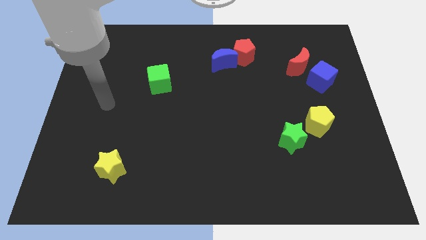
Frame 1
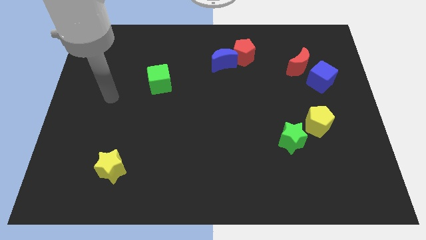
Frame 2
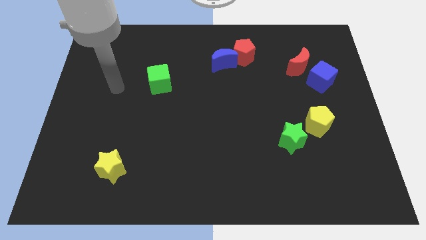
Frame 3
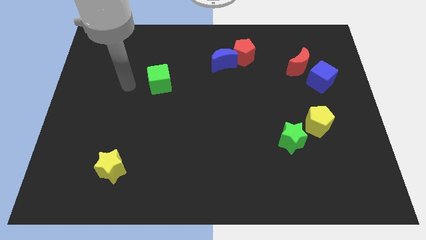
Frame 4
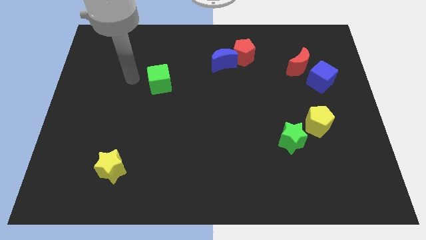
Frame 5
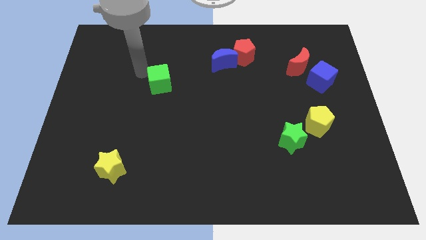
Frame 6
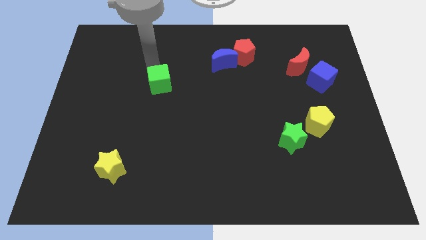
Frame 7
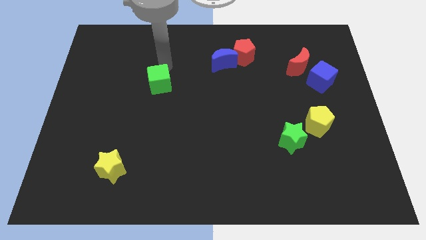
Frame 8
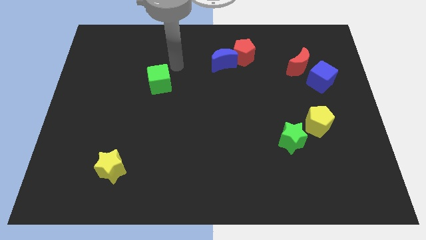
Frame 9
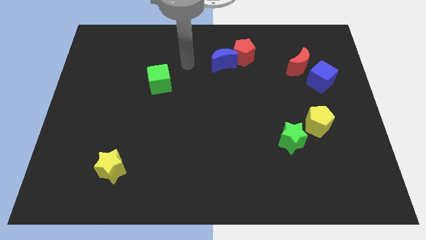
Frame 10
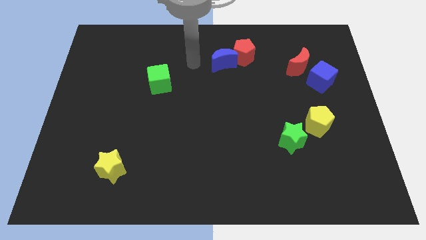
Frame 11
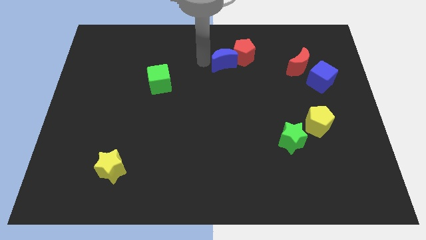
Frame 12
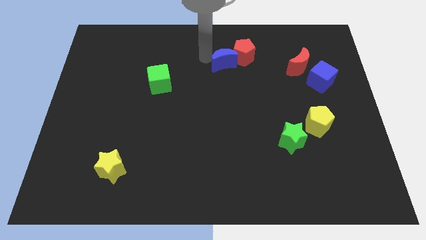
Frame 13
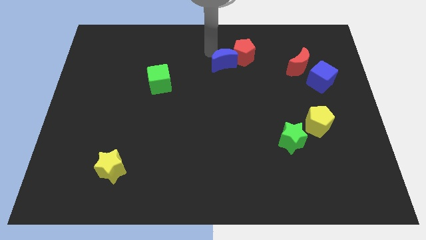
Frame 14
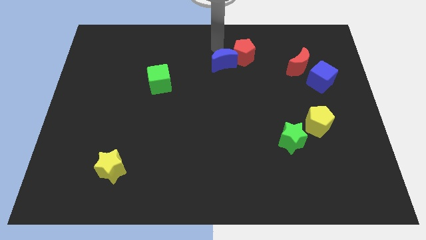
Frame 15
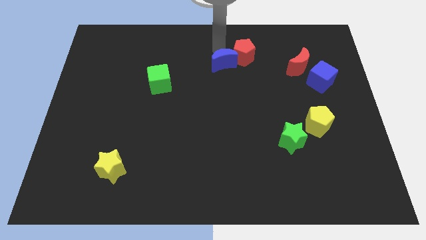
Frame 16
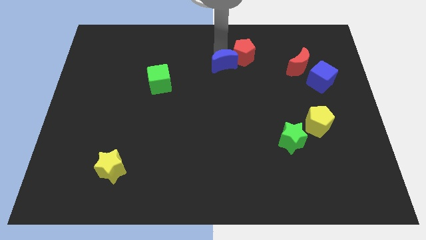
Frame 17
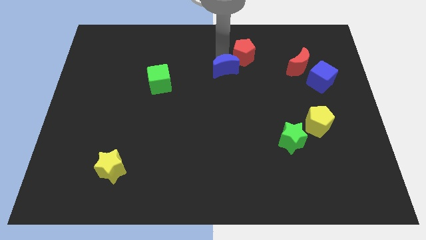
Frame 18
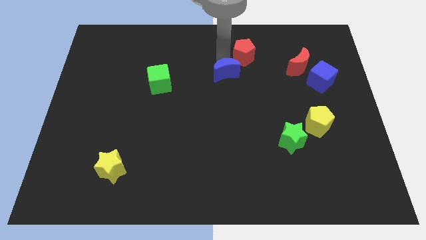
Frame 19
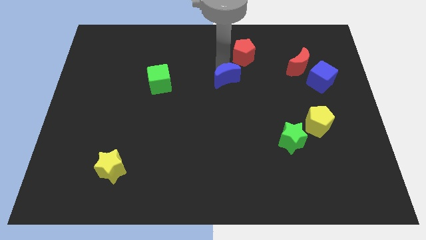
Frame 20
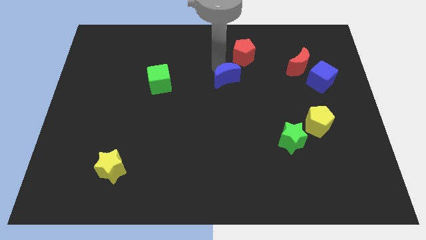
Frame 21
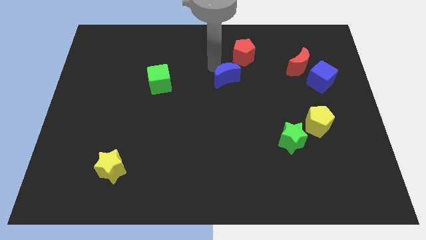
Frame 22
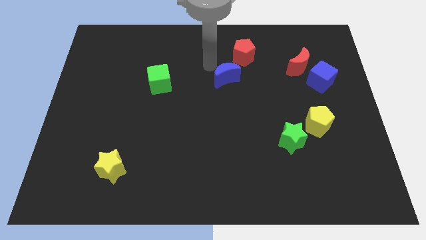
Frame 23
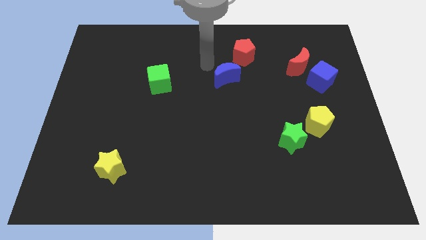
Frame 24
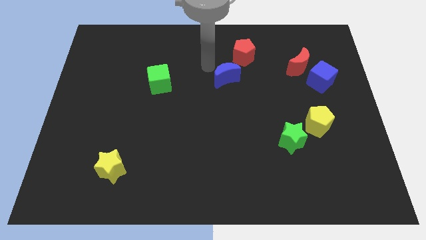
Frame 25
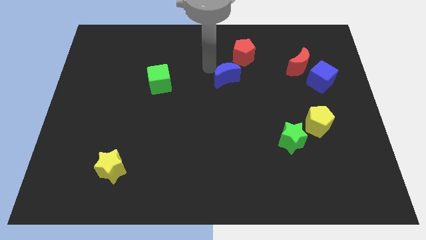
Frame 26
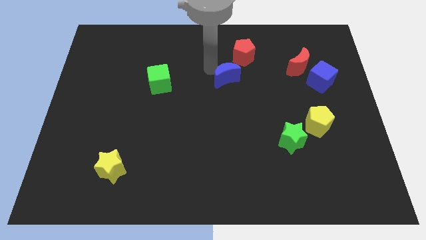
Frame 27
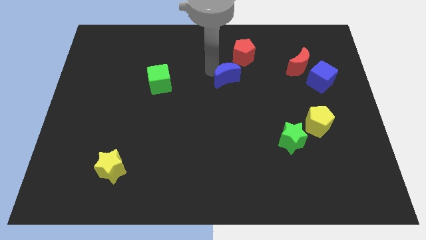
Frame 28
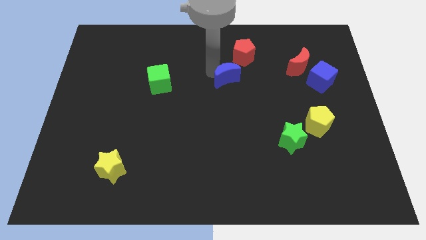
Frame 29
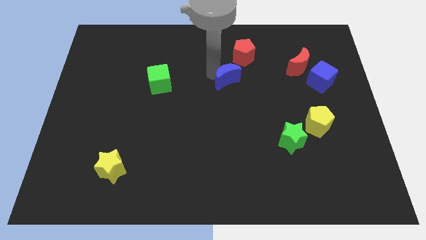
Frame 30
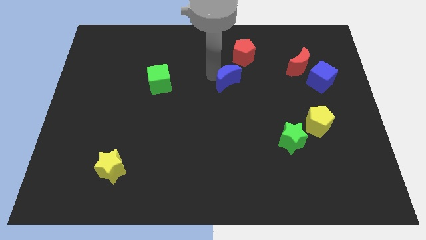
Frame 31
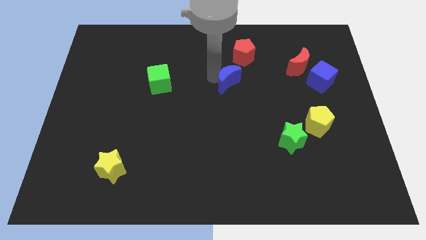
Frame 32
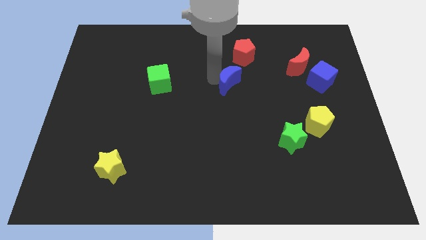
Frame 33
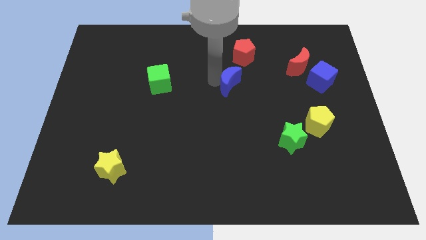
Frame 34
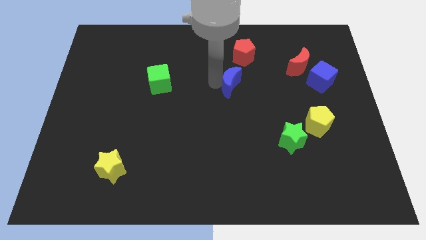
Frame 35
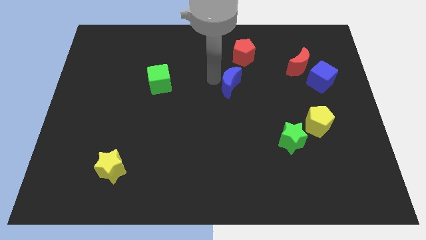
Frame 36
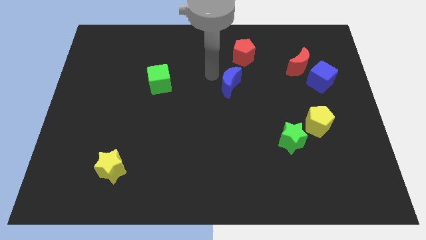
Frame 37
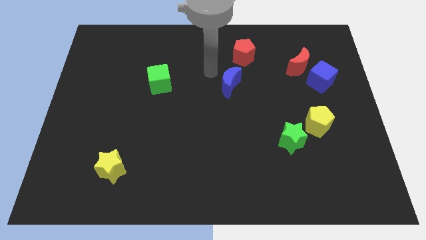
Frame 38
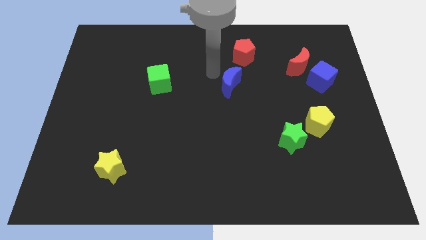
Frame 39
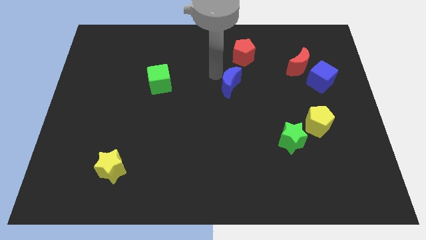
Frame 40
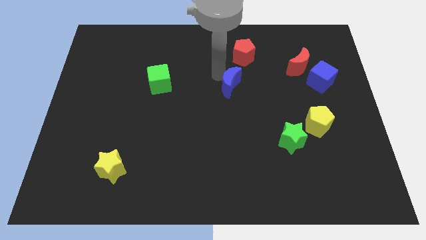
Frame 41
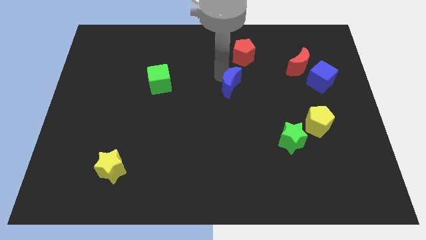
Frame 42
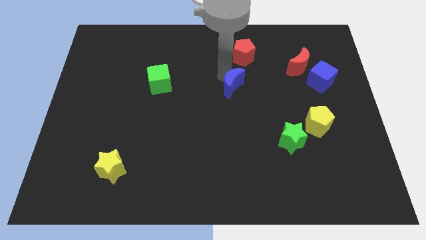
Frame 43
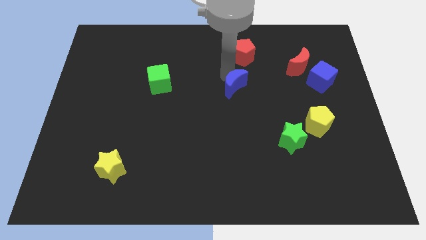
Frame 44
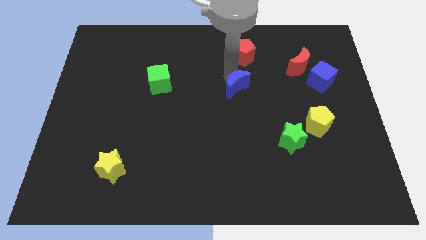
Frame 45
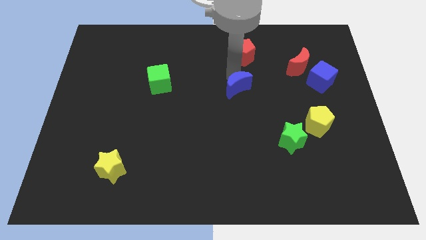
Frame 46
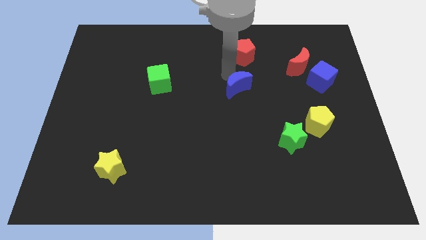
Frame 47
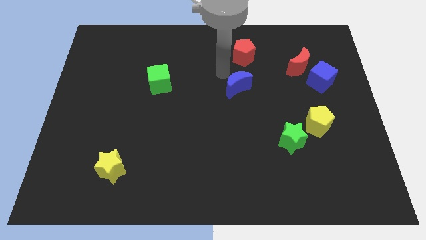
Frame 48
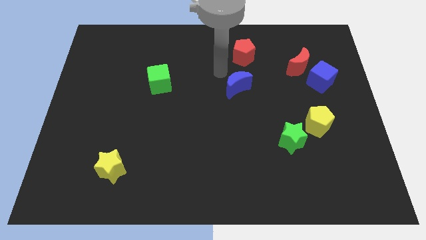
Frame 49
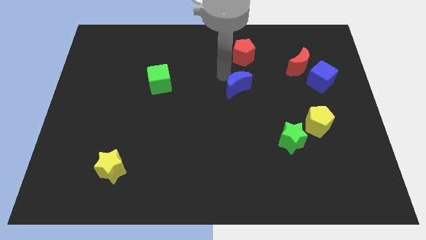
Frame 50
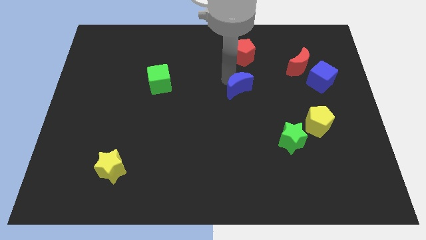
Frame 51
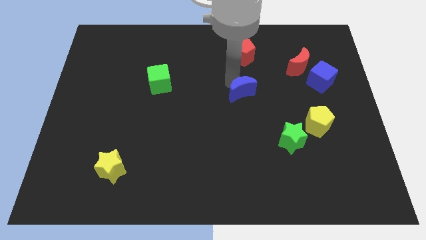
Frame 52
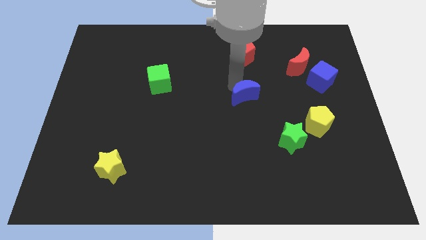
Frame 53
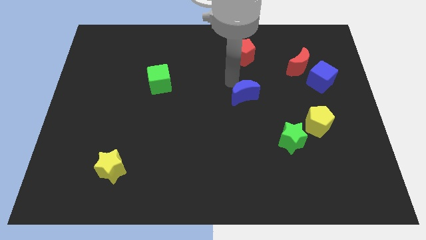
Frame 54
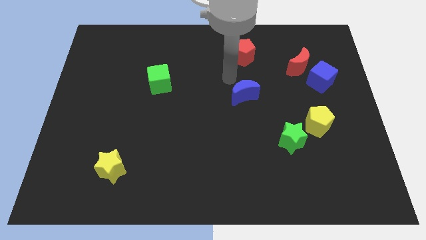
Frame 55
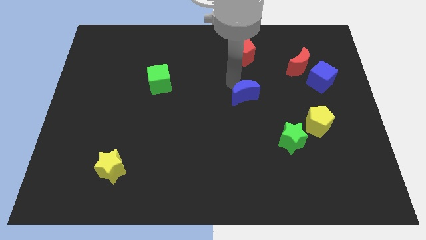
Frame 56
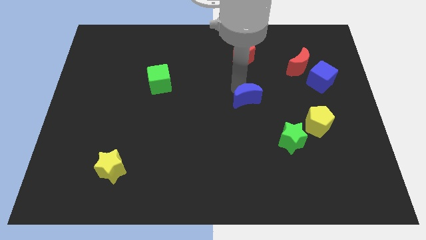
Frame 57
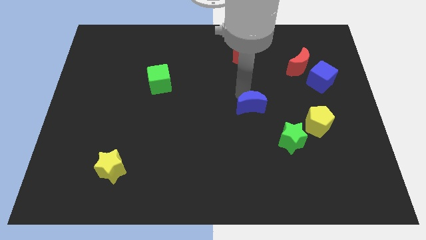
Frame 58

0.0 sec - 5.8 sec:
move the blue moon to the top left side of the green star

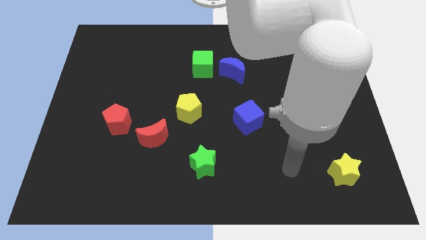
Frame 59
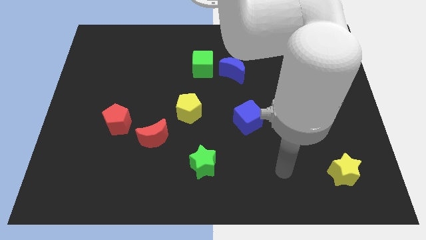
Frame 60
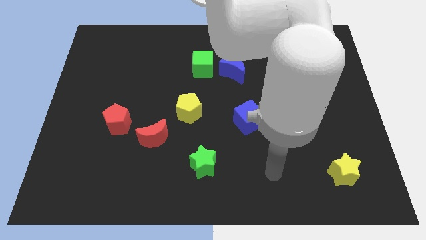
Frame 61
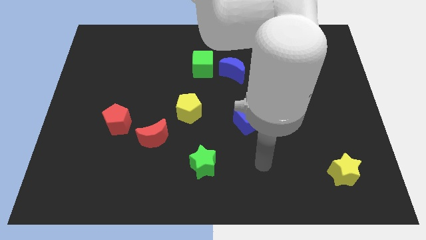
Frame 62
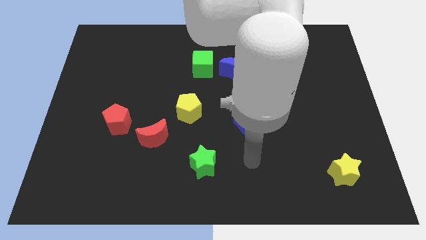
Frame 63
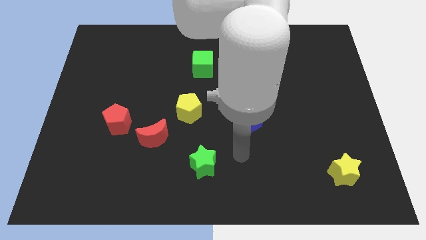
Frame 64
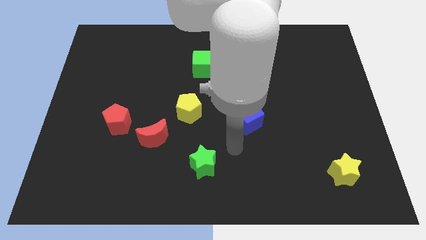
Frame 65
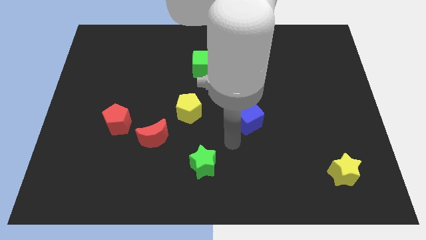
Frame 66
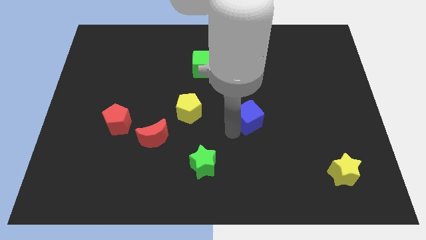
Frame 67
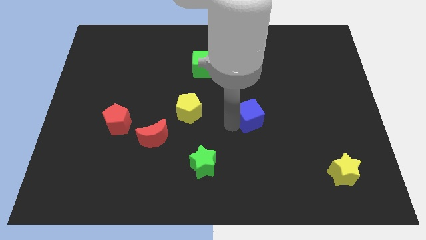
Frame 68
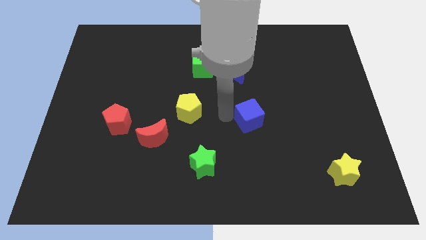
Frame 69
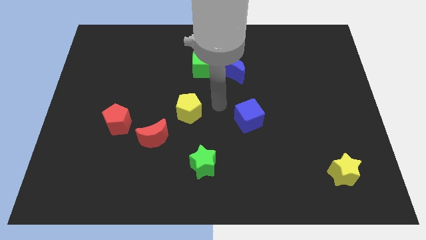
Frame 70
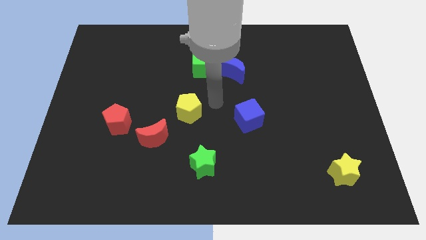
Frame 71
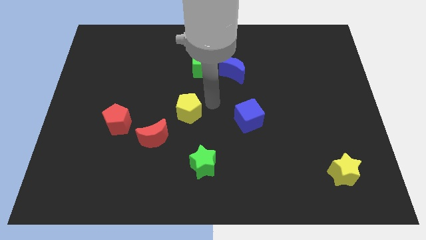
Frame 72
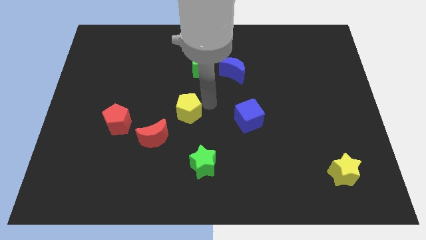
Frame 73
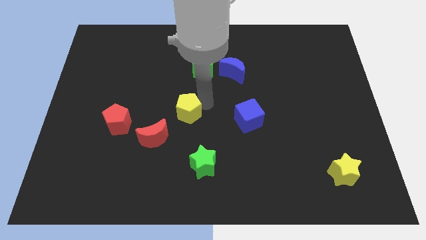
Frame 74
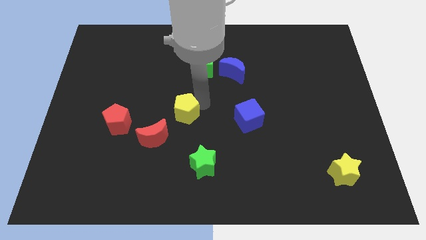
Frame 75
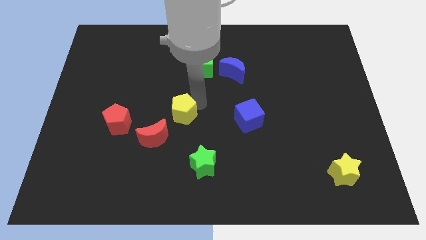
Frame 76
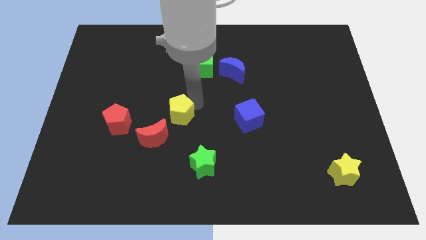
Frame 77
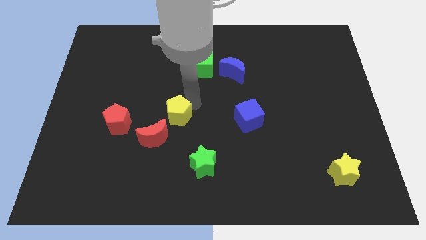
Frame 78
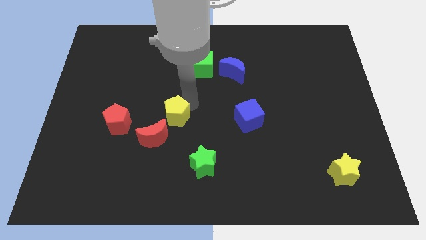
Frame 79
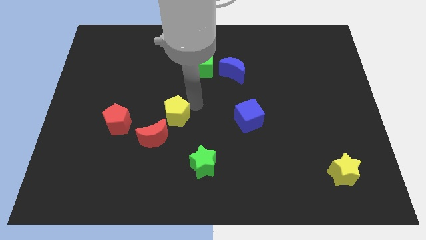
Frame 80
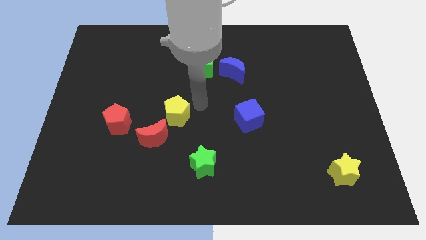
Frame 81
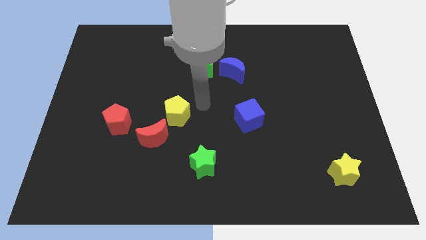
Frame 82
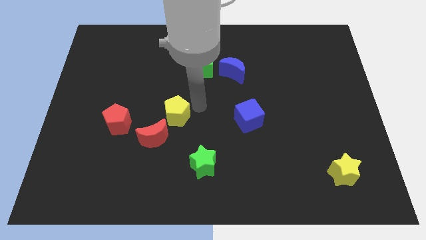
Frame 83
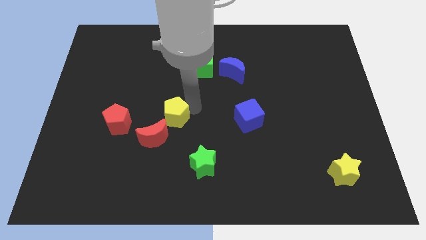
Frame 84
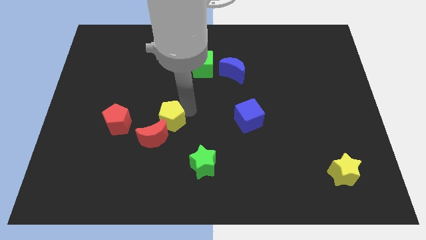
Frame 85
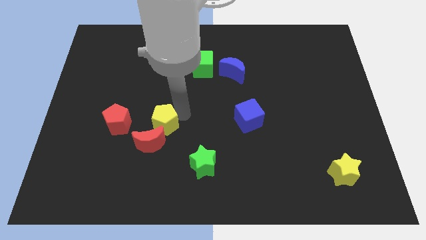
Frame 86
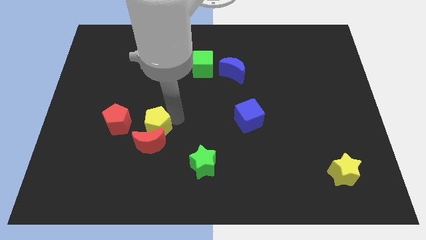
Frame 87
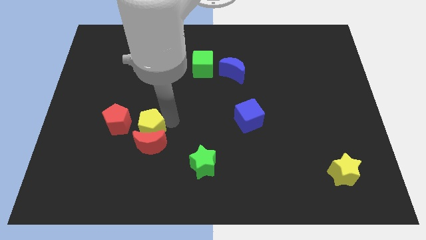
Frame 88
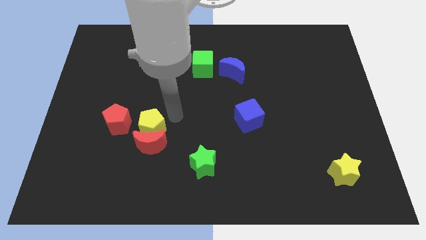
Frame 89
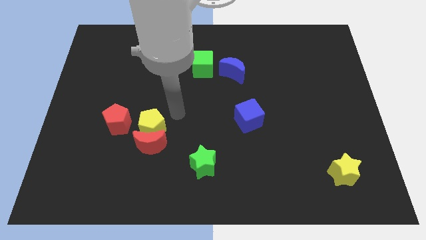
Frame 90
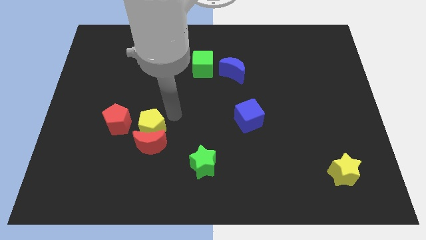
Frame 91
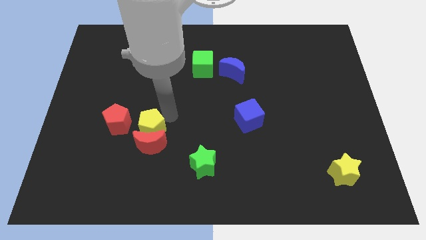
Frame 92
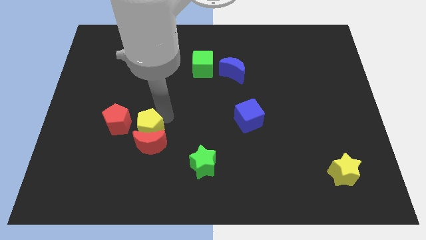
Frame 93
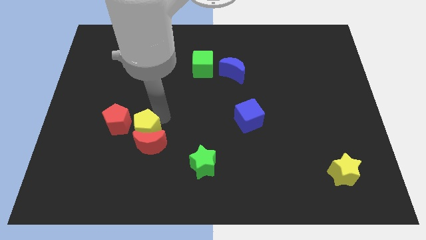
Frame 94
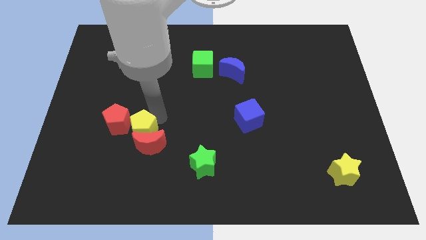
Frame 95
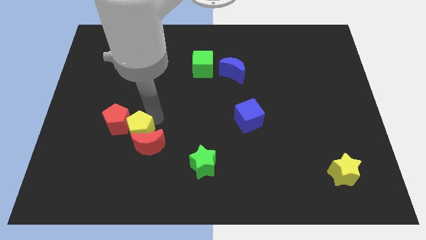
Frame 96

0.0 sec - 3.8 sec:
put the yellow pentagon to the left of the red moon
